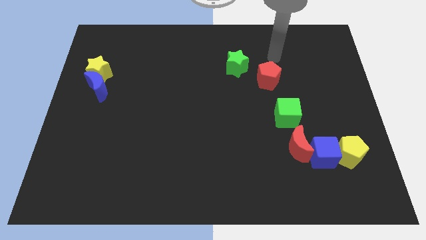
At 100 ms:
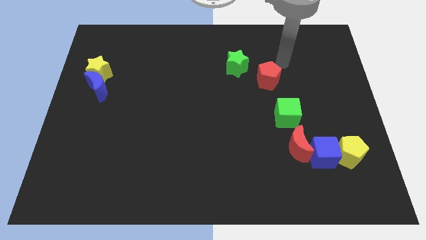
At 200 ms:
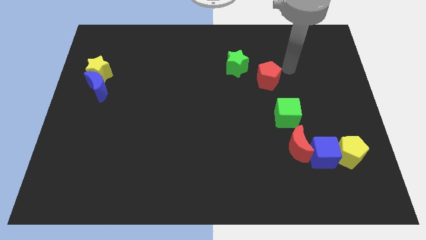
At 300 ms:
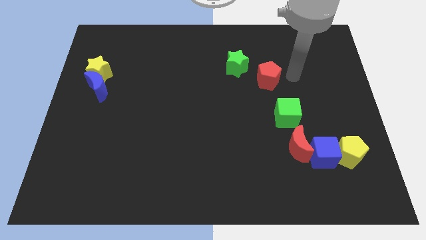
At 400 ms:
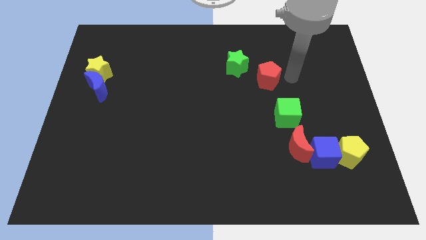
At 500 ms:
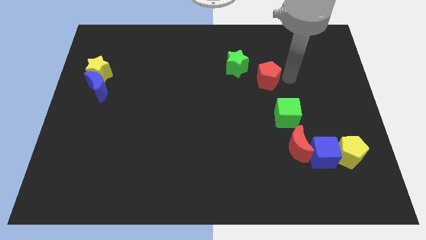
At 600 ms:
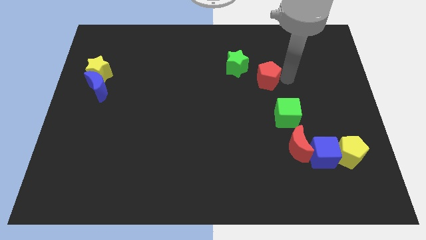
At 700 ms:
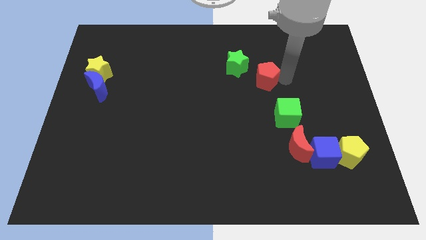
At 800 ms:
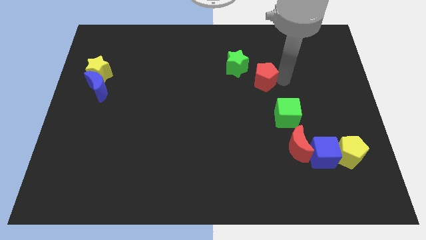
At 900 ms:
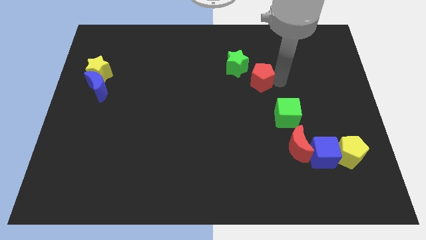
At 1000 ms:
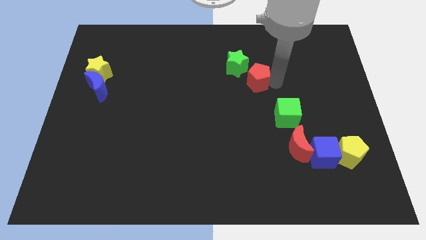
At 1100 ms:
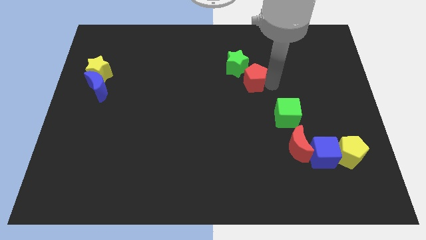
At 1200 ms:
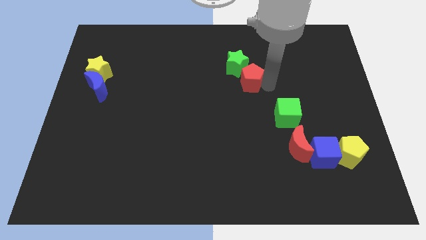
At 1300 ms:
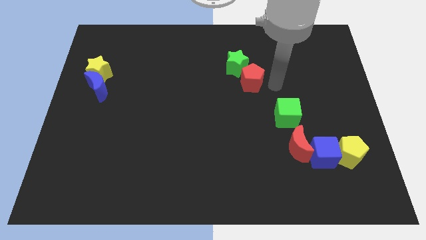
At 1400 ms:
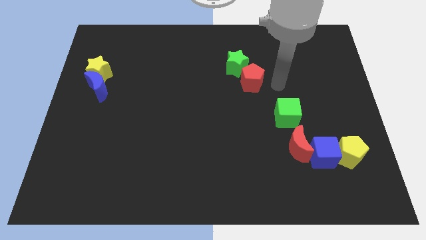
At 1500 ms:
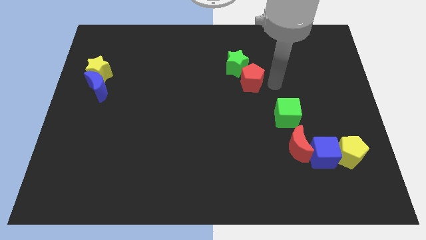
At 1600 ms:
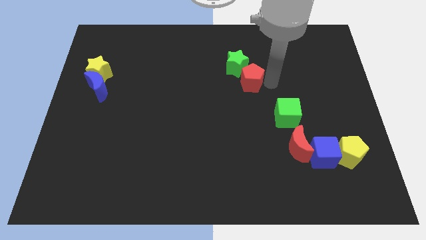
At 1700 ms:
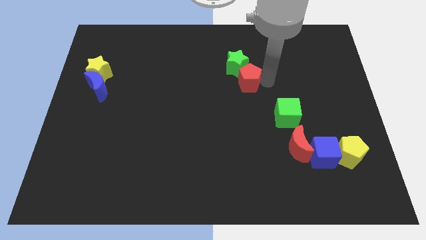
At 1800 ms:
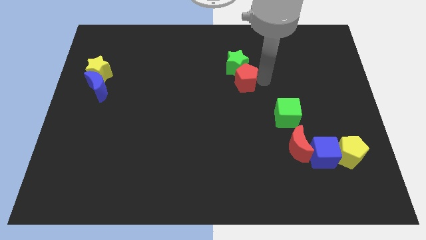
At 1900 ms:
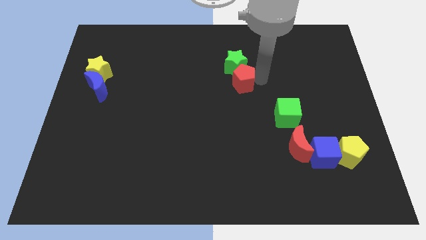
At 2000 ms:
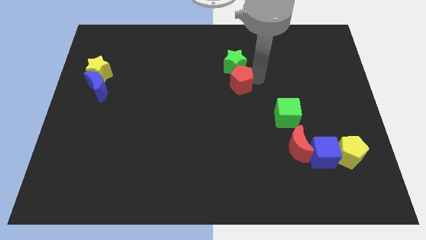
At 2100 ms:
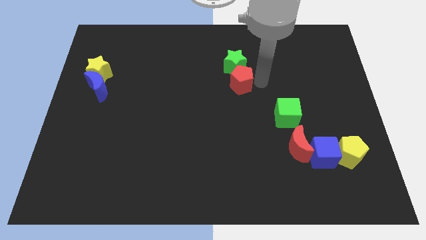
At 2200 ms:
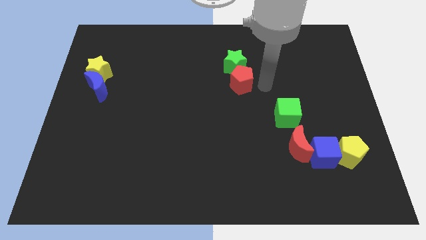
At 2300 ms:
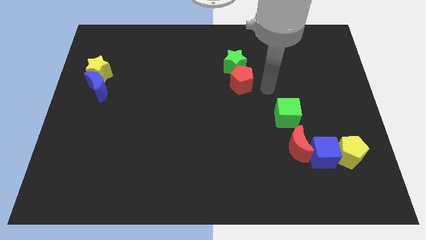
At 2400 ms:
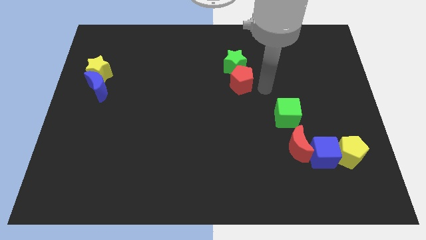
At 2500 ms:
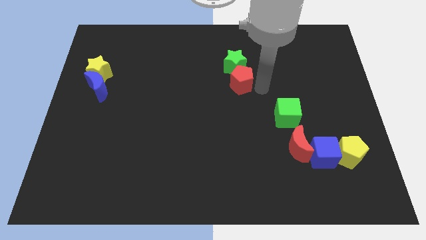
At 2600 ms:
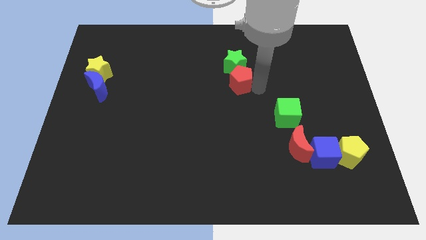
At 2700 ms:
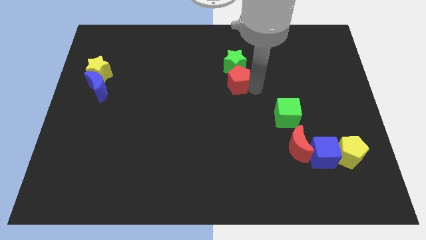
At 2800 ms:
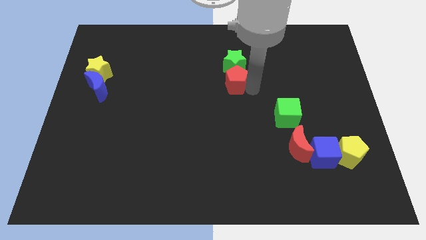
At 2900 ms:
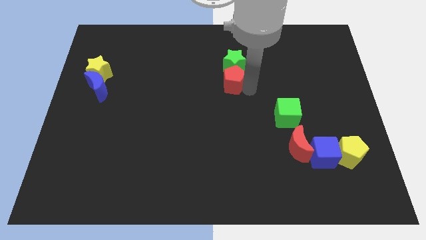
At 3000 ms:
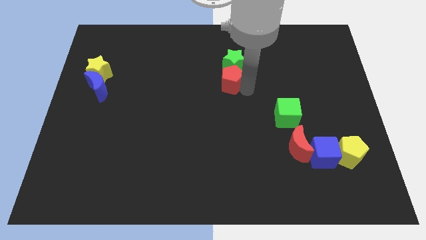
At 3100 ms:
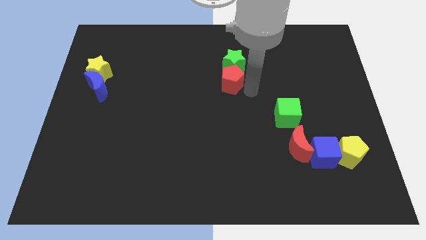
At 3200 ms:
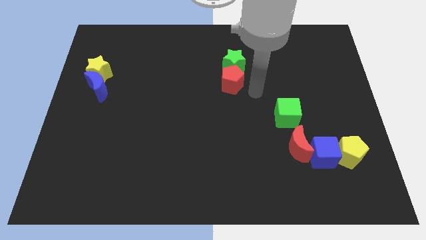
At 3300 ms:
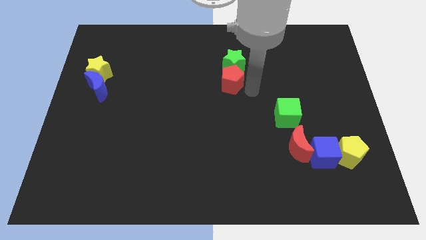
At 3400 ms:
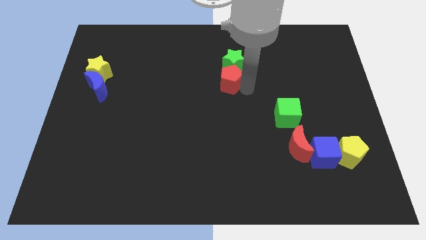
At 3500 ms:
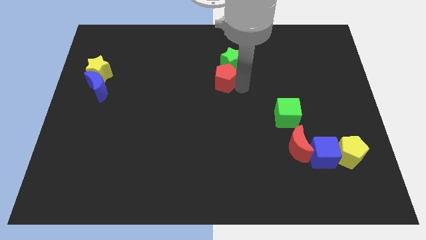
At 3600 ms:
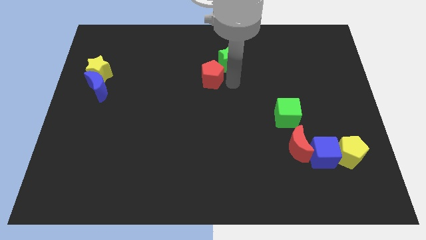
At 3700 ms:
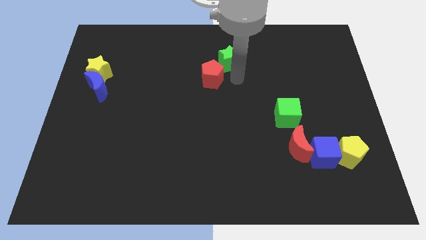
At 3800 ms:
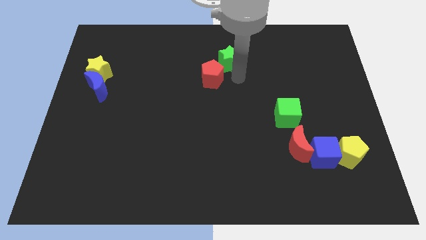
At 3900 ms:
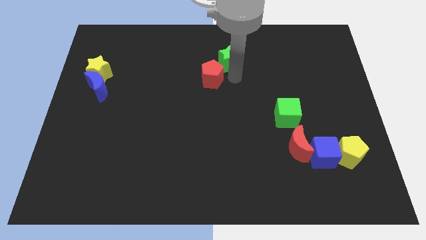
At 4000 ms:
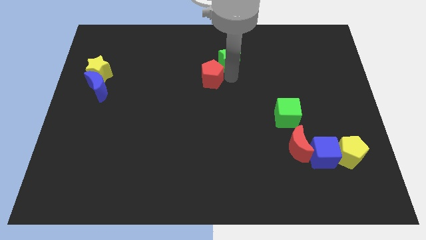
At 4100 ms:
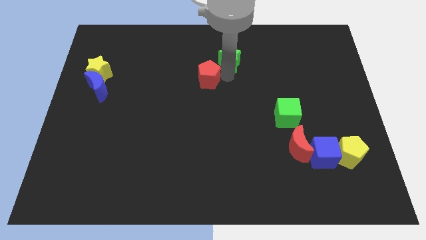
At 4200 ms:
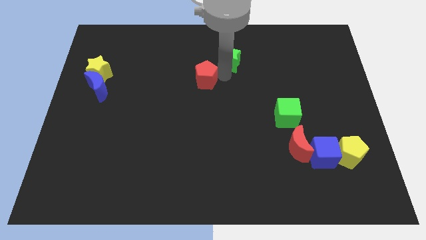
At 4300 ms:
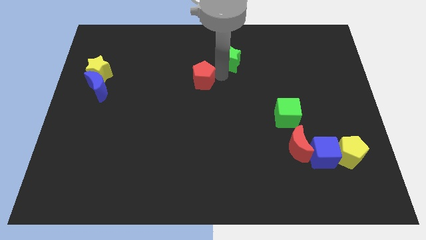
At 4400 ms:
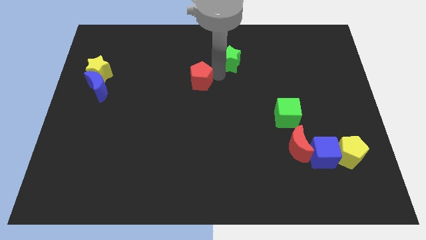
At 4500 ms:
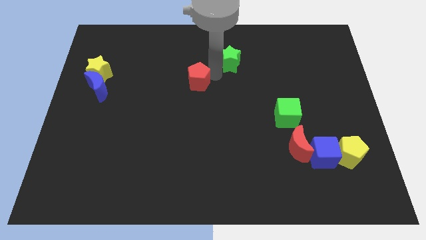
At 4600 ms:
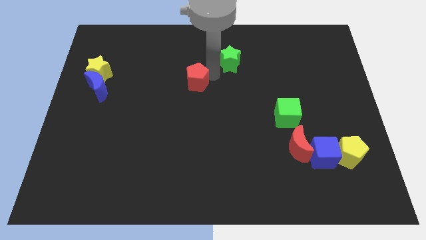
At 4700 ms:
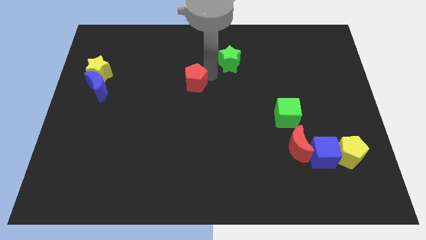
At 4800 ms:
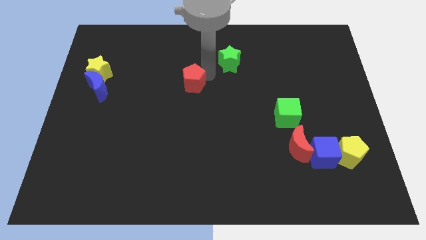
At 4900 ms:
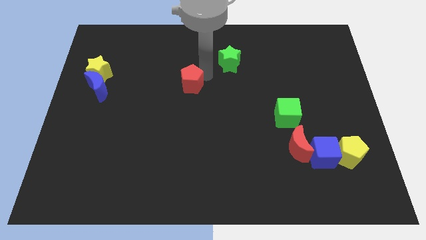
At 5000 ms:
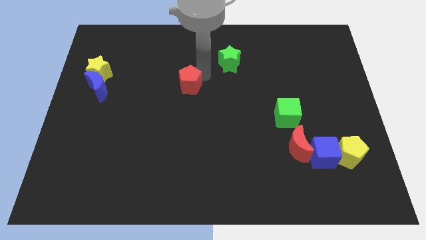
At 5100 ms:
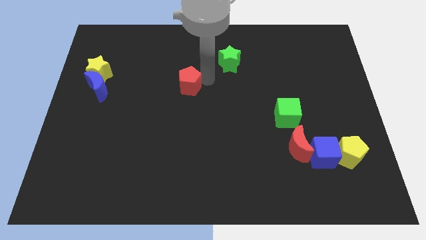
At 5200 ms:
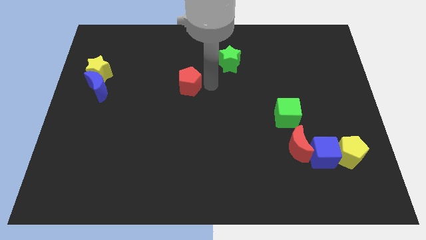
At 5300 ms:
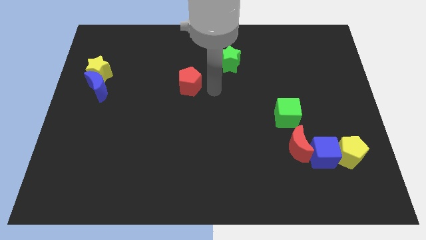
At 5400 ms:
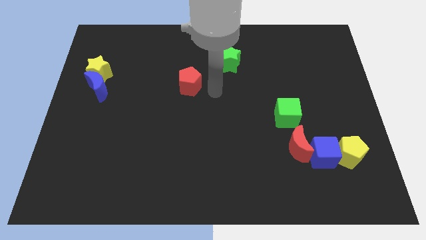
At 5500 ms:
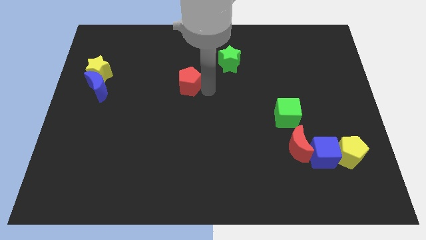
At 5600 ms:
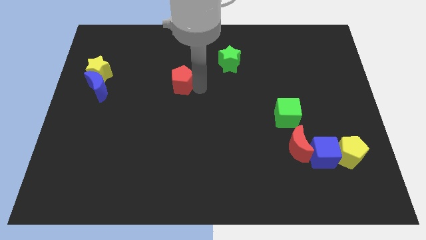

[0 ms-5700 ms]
push the red pentagon to the left

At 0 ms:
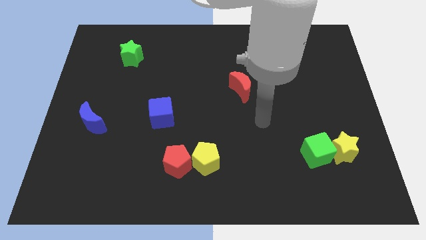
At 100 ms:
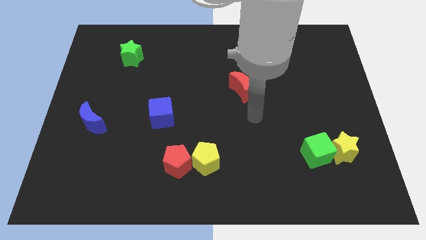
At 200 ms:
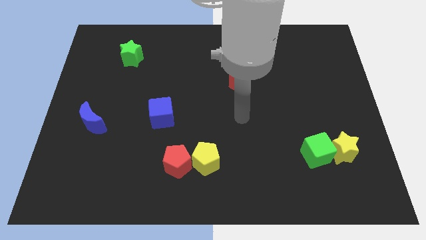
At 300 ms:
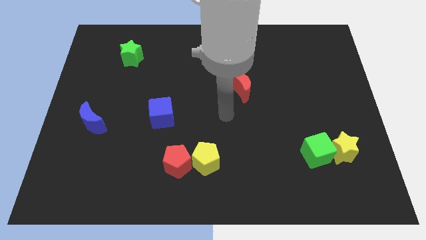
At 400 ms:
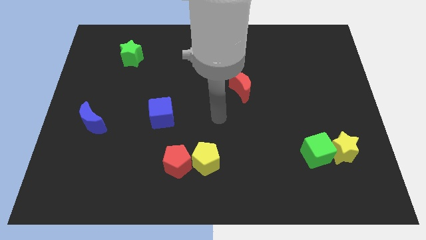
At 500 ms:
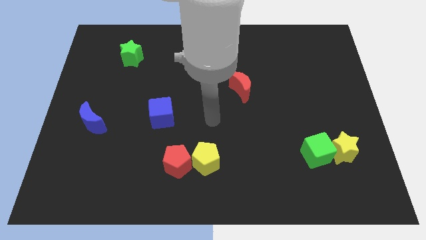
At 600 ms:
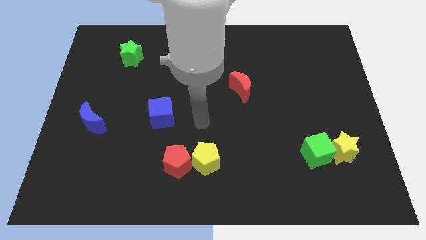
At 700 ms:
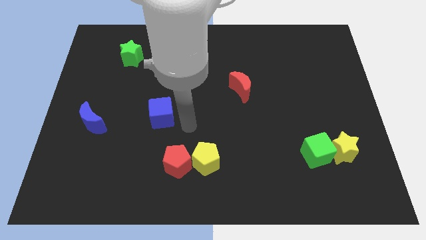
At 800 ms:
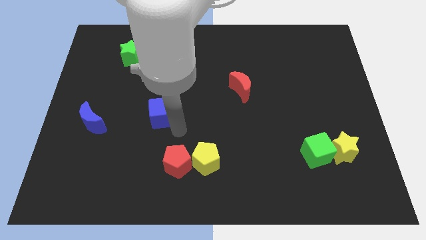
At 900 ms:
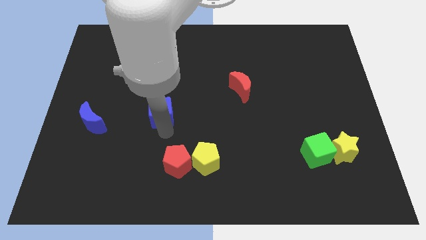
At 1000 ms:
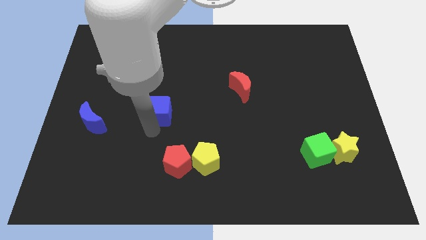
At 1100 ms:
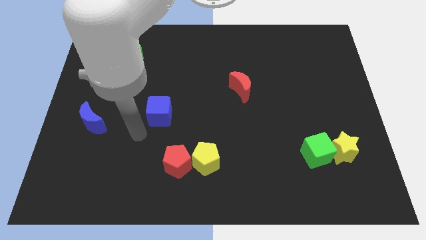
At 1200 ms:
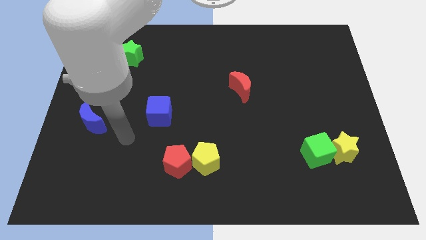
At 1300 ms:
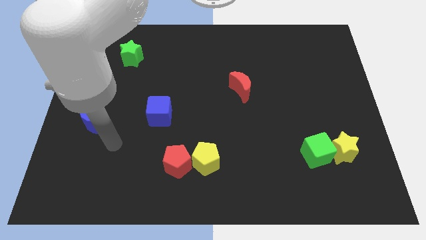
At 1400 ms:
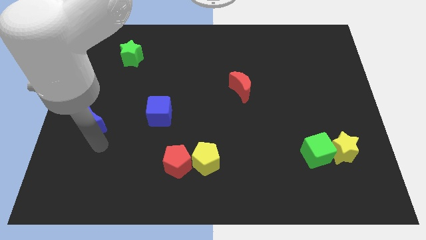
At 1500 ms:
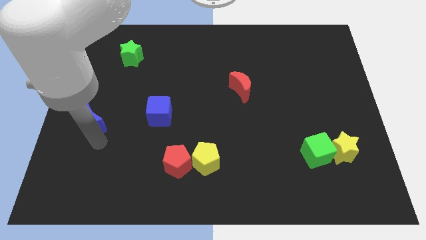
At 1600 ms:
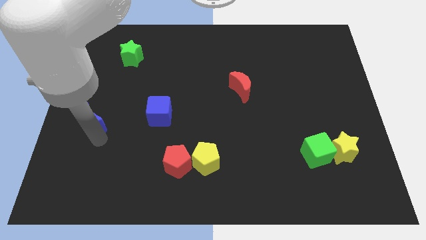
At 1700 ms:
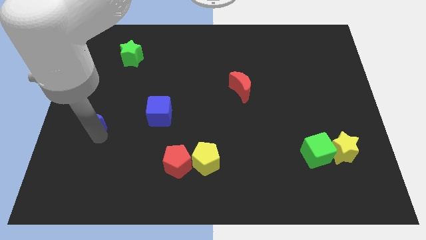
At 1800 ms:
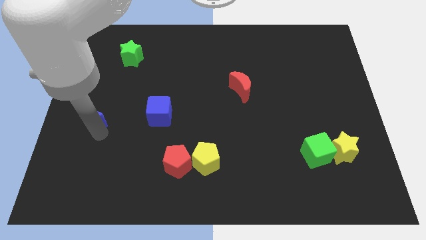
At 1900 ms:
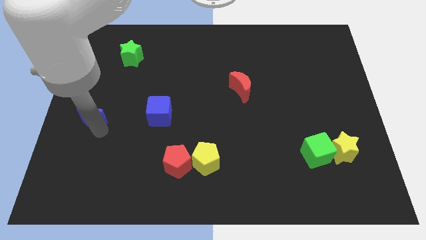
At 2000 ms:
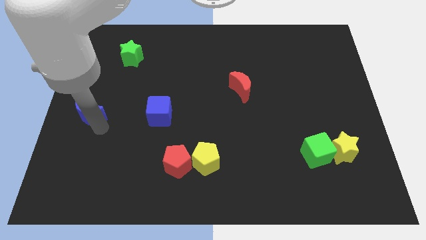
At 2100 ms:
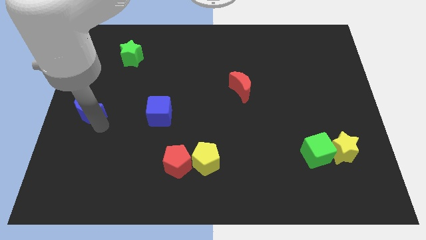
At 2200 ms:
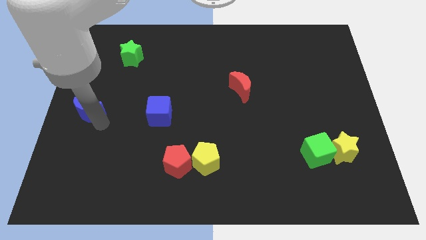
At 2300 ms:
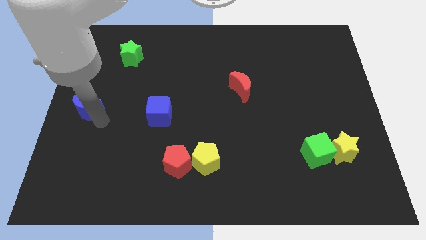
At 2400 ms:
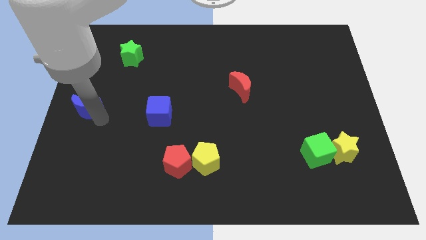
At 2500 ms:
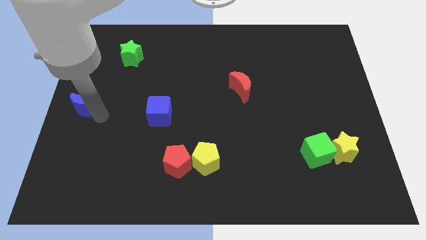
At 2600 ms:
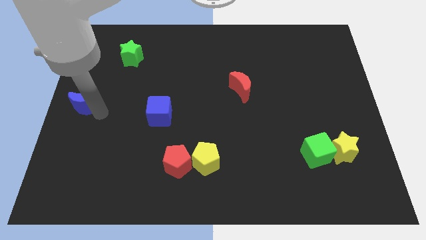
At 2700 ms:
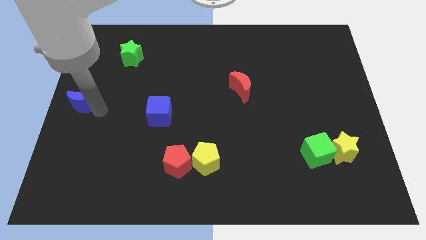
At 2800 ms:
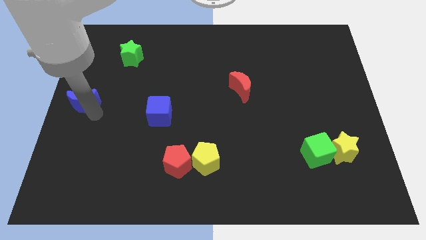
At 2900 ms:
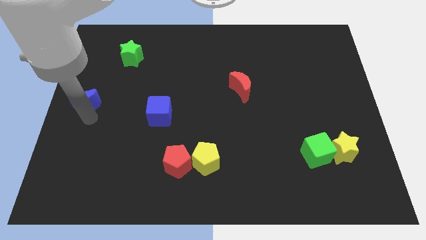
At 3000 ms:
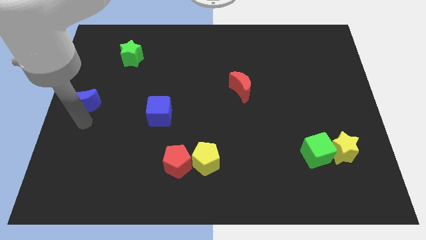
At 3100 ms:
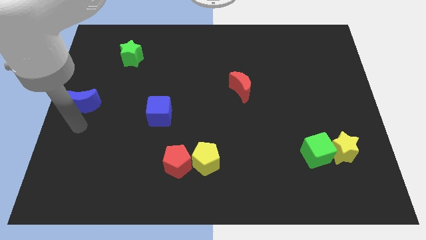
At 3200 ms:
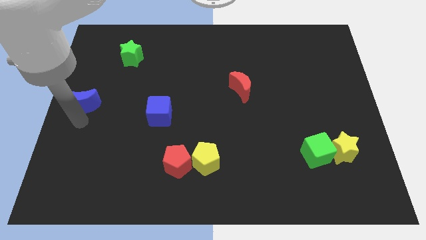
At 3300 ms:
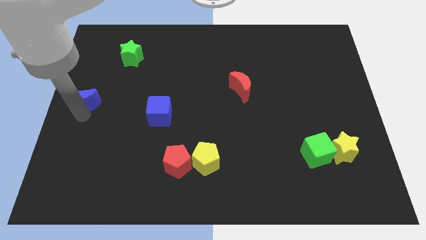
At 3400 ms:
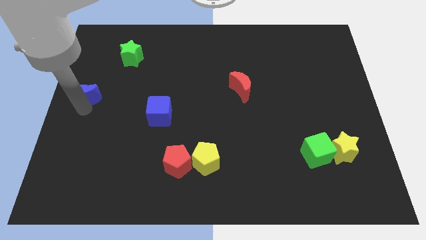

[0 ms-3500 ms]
slightly push the blue moon up
